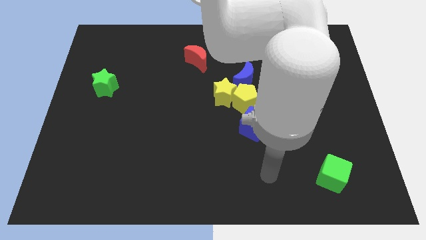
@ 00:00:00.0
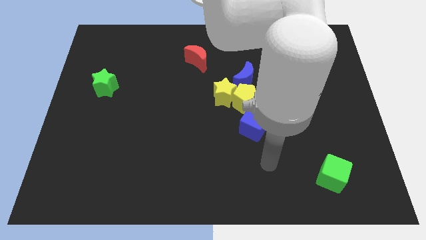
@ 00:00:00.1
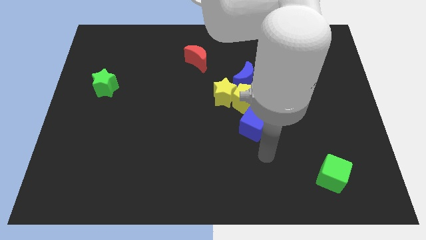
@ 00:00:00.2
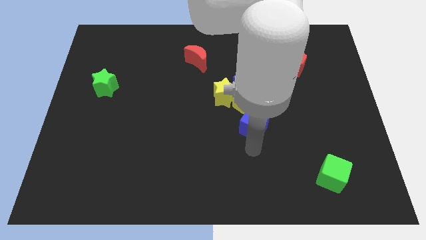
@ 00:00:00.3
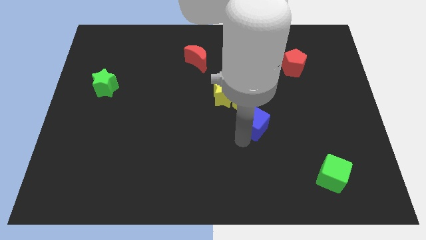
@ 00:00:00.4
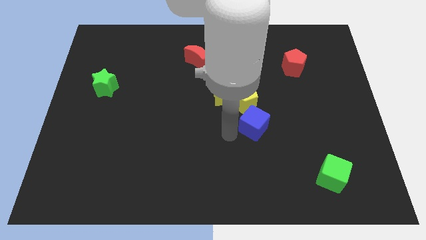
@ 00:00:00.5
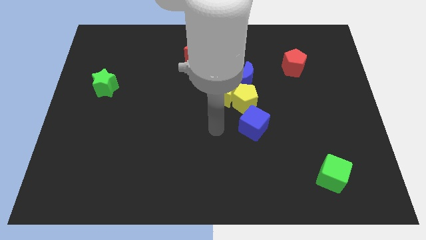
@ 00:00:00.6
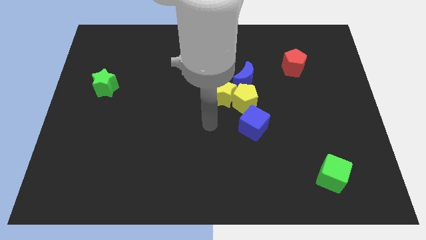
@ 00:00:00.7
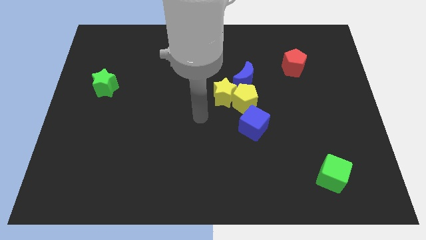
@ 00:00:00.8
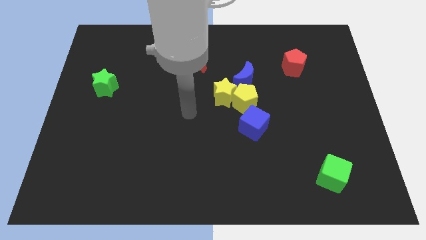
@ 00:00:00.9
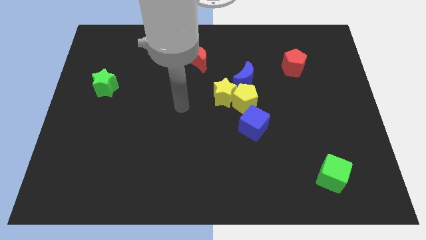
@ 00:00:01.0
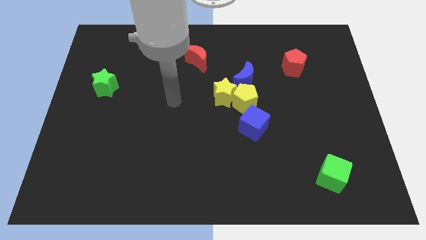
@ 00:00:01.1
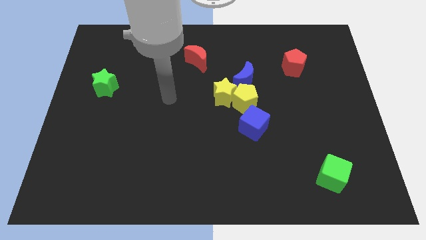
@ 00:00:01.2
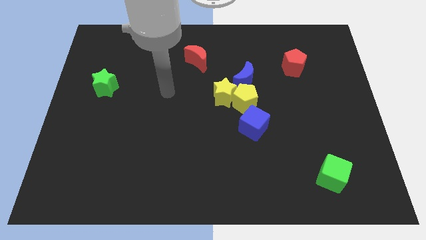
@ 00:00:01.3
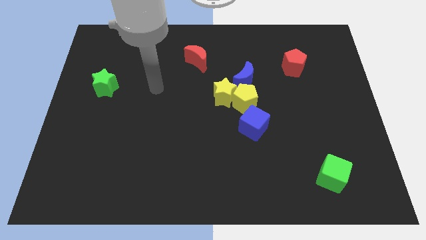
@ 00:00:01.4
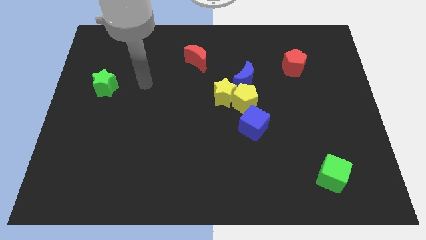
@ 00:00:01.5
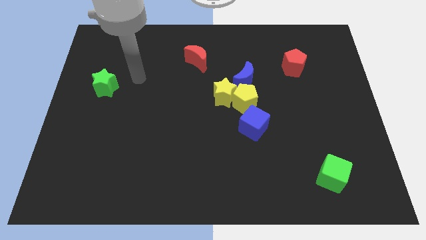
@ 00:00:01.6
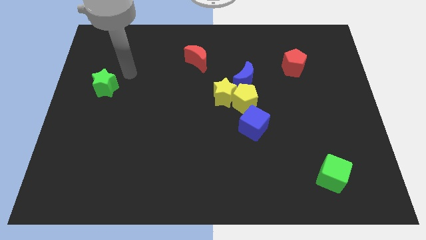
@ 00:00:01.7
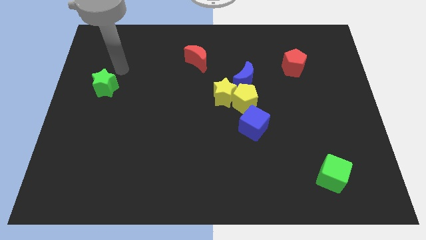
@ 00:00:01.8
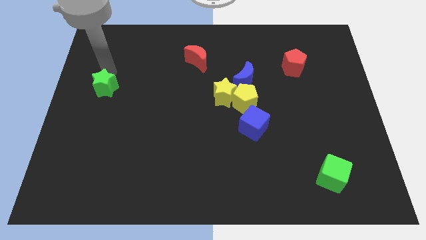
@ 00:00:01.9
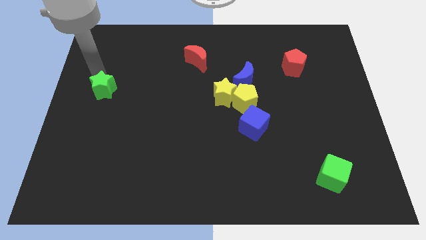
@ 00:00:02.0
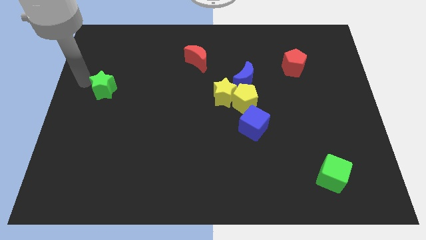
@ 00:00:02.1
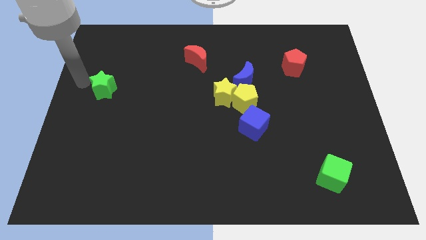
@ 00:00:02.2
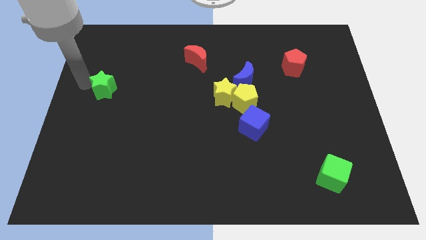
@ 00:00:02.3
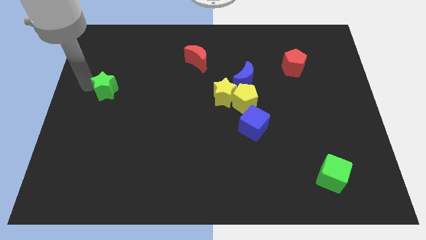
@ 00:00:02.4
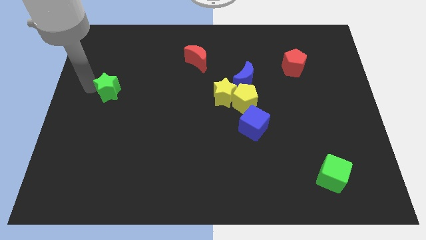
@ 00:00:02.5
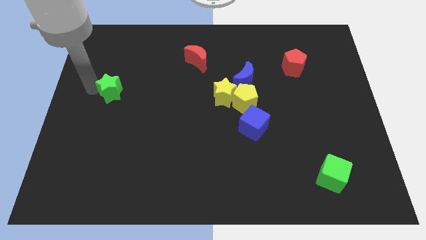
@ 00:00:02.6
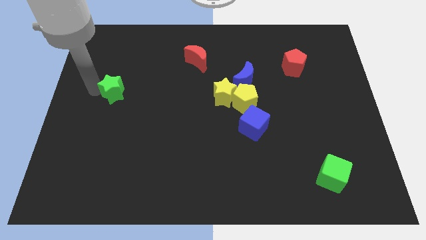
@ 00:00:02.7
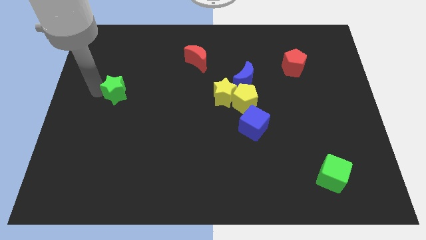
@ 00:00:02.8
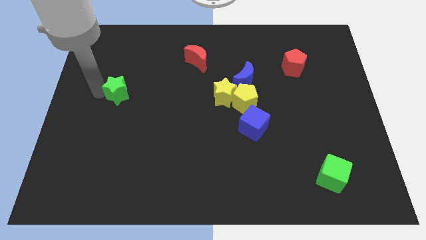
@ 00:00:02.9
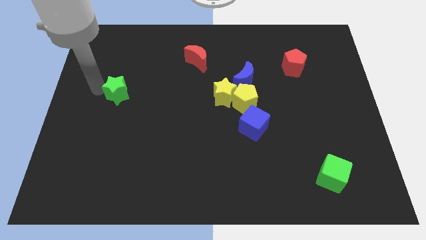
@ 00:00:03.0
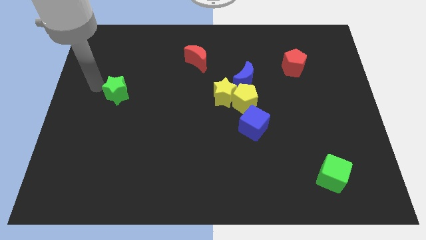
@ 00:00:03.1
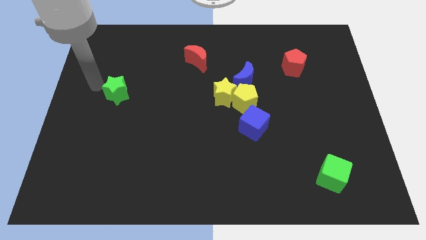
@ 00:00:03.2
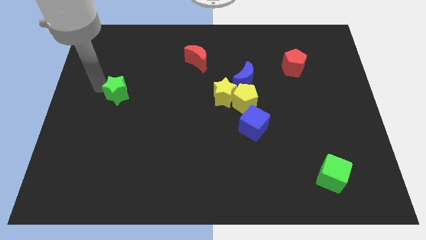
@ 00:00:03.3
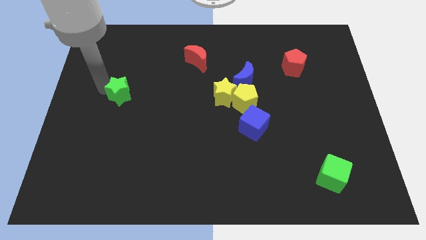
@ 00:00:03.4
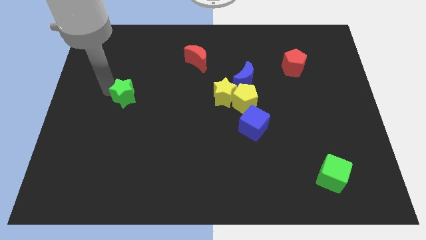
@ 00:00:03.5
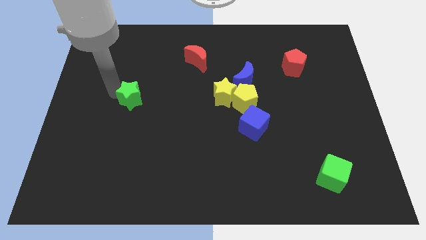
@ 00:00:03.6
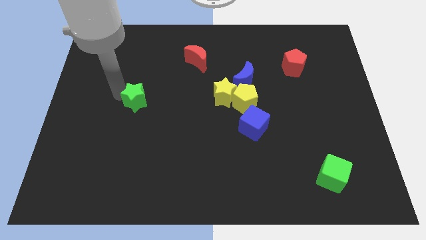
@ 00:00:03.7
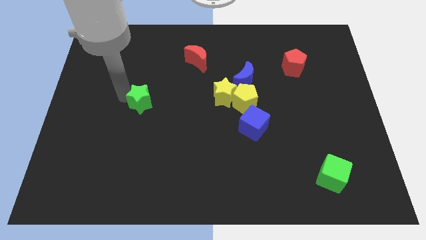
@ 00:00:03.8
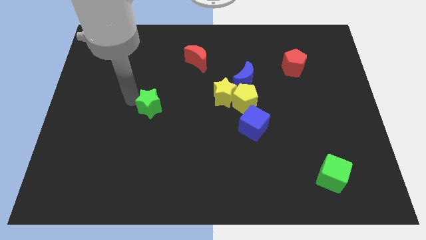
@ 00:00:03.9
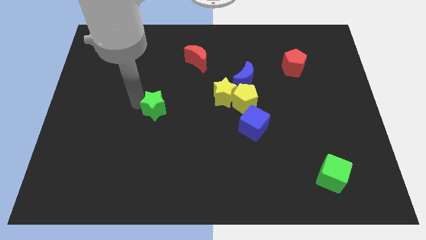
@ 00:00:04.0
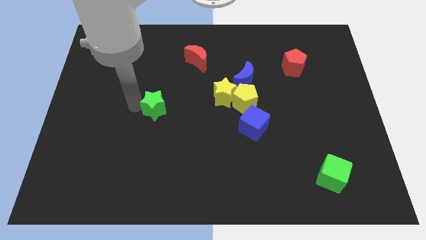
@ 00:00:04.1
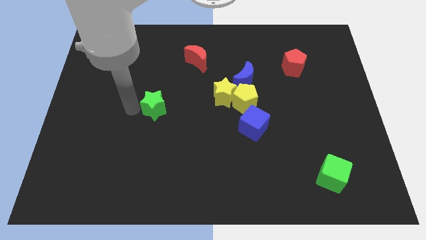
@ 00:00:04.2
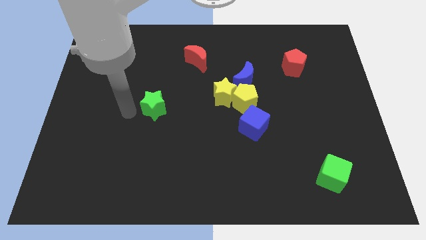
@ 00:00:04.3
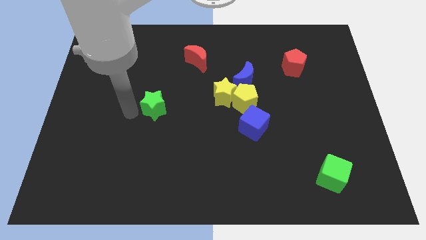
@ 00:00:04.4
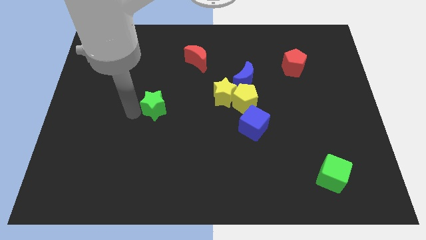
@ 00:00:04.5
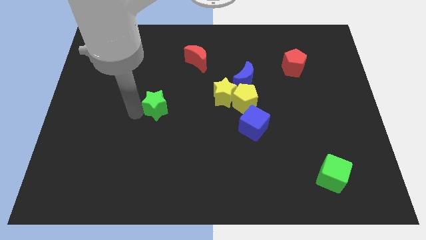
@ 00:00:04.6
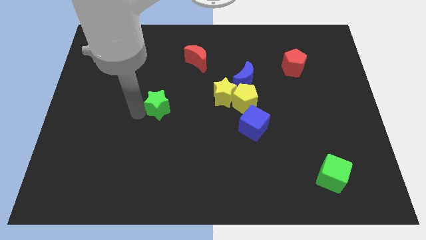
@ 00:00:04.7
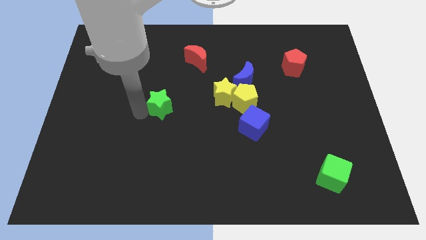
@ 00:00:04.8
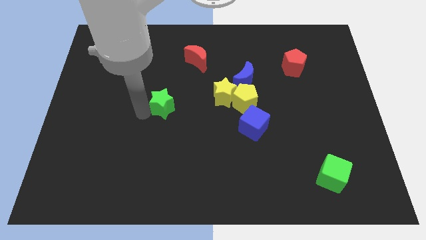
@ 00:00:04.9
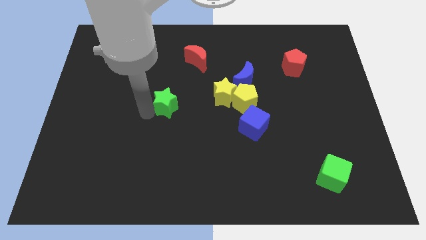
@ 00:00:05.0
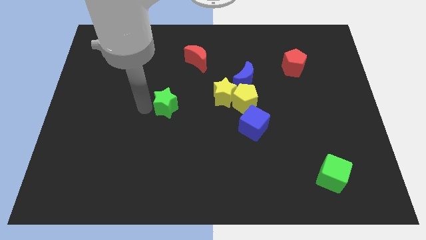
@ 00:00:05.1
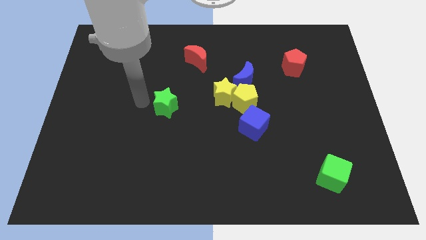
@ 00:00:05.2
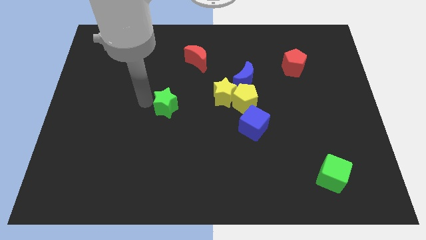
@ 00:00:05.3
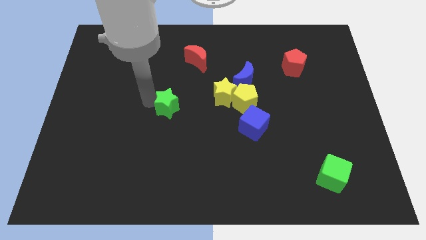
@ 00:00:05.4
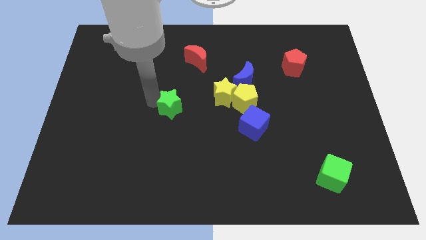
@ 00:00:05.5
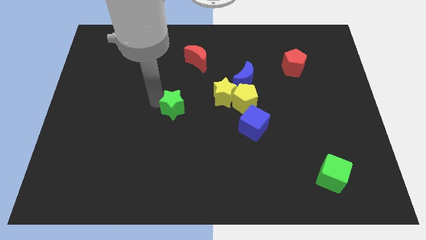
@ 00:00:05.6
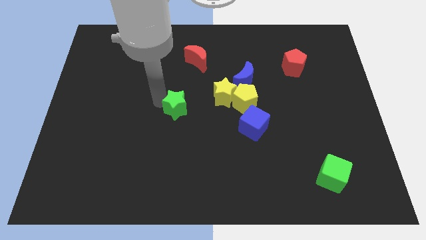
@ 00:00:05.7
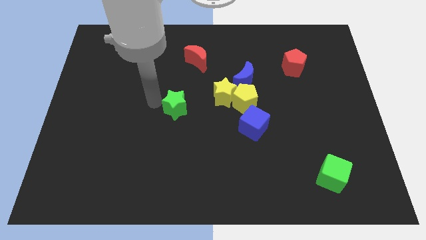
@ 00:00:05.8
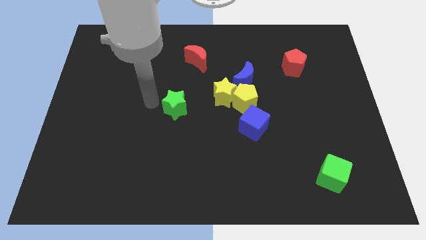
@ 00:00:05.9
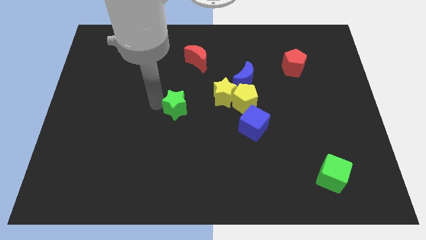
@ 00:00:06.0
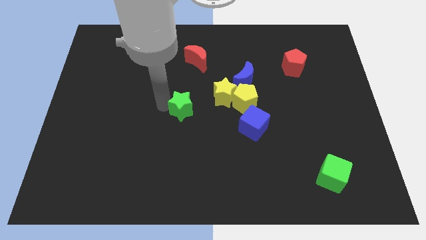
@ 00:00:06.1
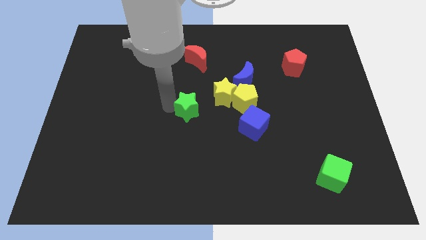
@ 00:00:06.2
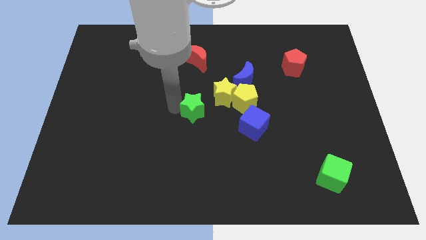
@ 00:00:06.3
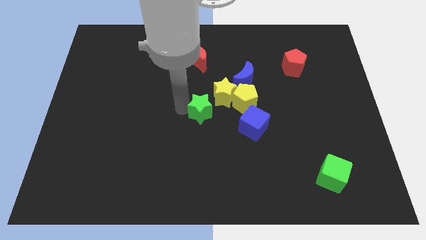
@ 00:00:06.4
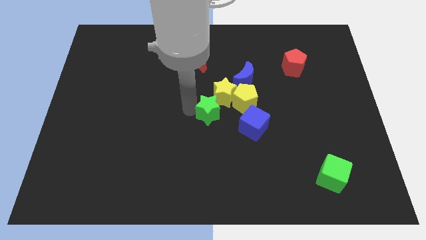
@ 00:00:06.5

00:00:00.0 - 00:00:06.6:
put the green star diagonally down and to the left of the yellow pentagon
